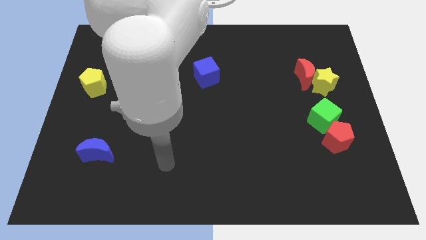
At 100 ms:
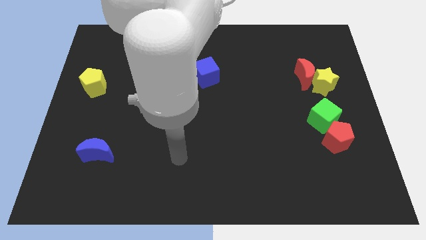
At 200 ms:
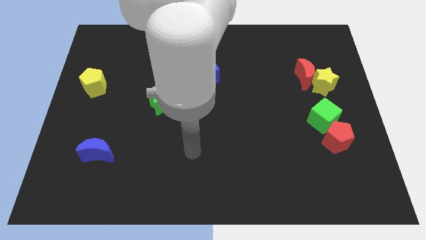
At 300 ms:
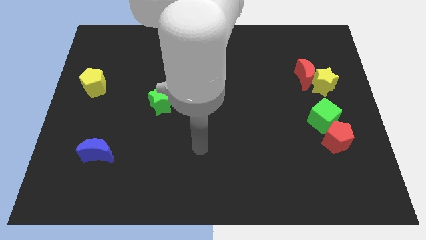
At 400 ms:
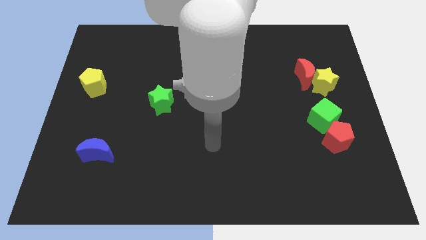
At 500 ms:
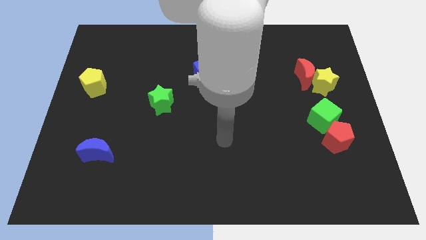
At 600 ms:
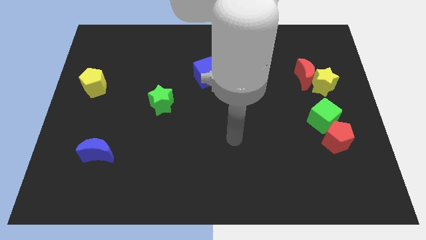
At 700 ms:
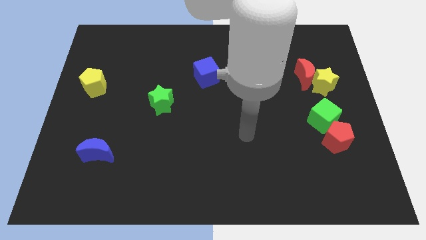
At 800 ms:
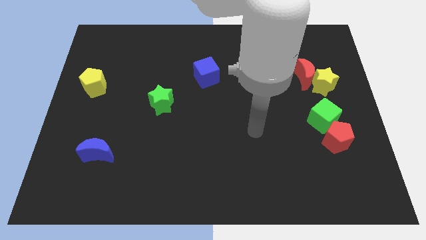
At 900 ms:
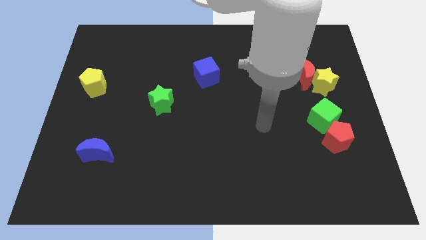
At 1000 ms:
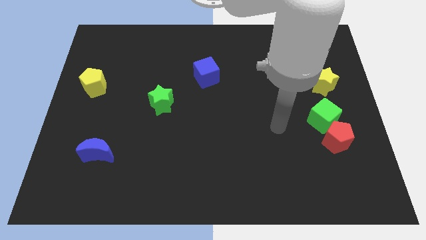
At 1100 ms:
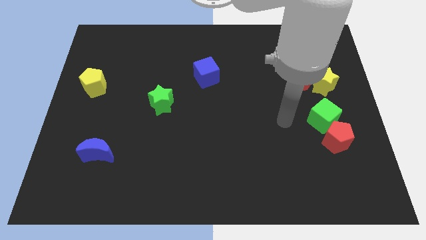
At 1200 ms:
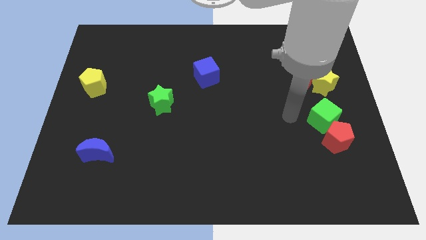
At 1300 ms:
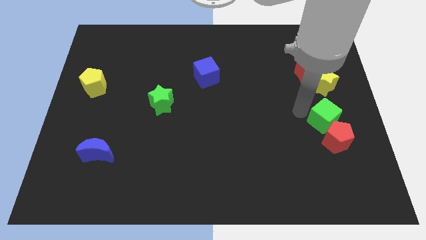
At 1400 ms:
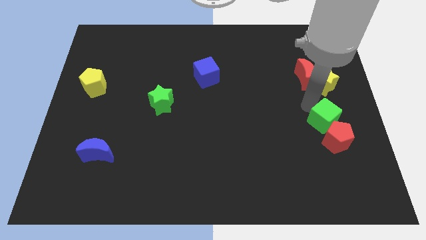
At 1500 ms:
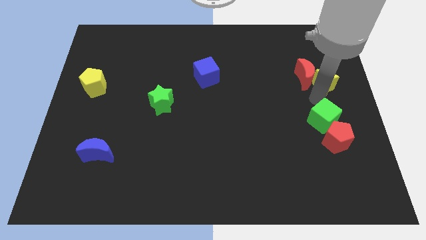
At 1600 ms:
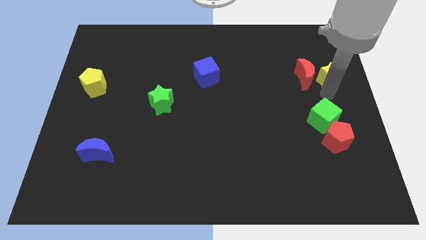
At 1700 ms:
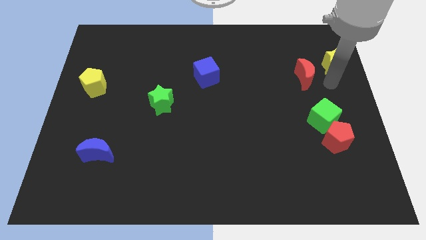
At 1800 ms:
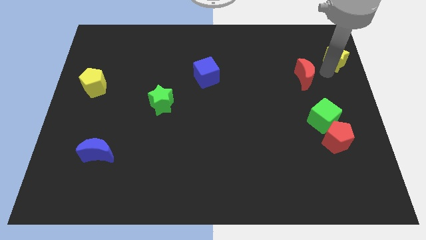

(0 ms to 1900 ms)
pull the red moon apart from the yellow star

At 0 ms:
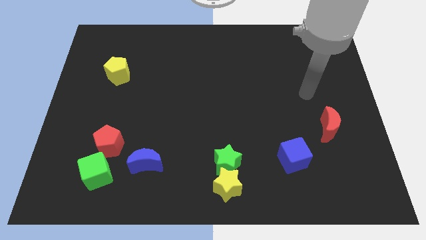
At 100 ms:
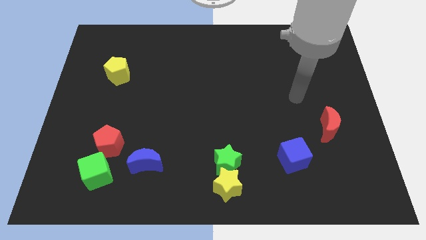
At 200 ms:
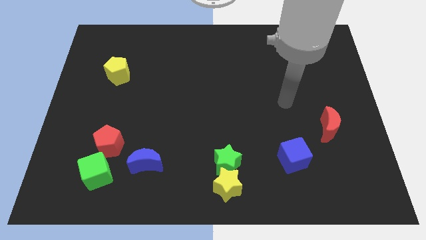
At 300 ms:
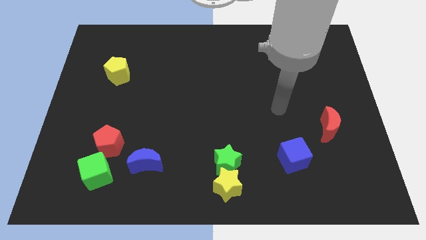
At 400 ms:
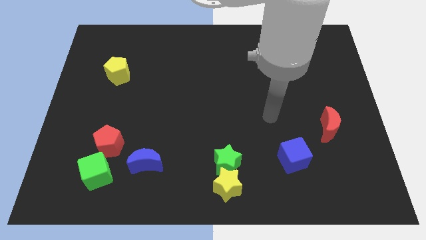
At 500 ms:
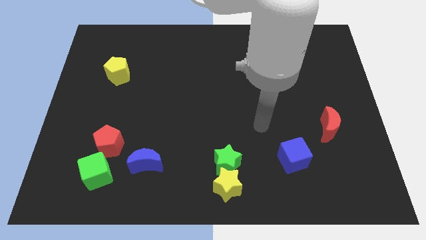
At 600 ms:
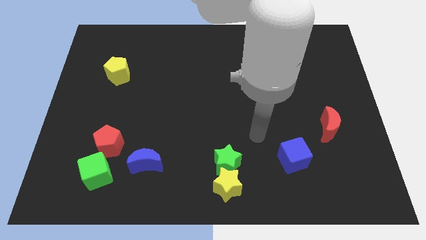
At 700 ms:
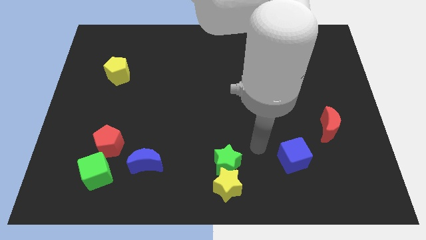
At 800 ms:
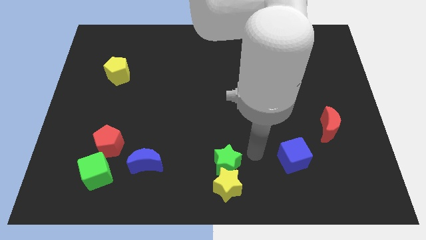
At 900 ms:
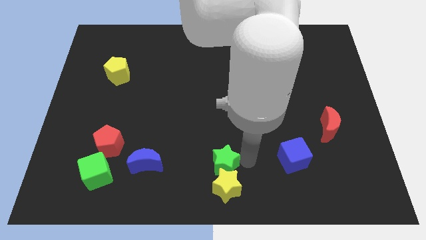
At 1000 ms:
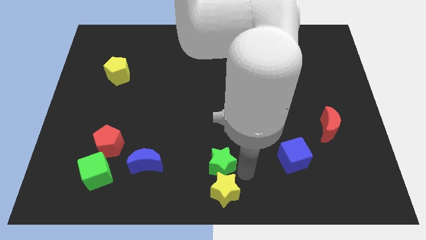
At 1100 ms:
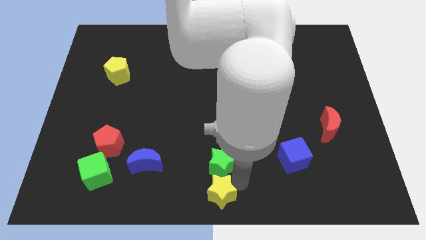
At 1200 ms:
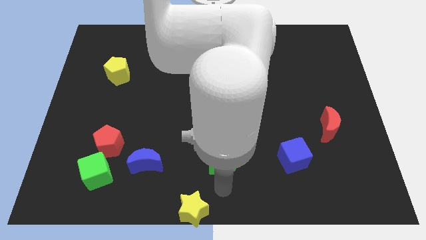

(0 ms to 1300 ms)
move the green star away from the yellow star

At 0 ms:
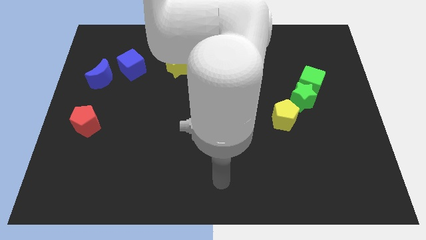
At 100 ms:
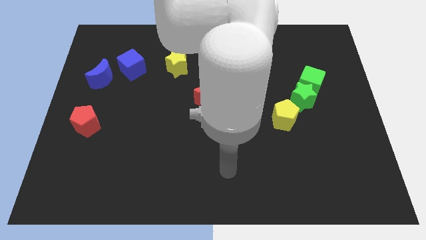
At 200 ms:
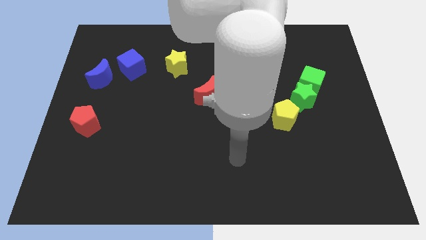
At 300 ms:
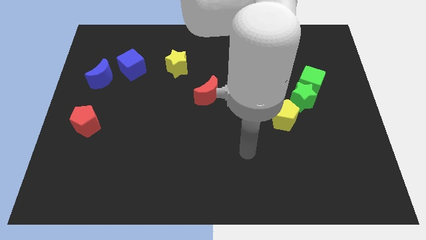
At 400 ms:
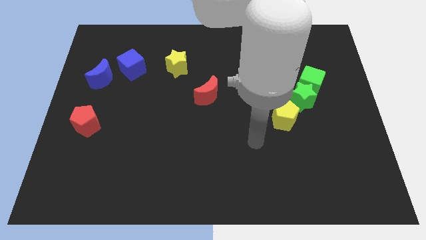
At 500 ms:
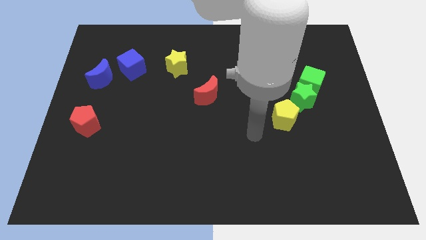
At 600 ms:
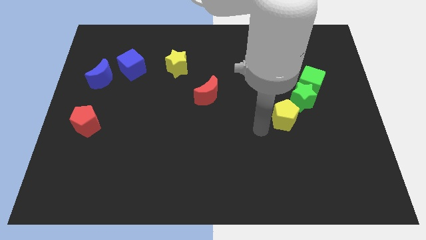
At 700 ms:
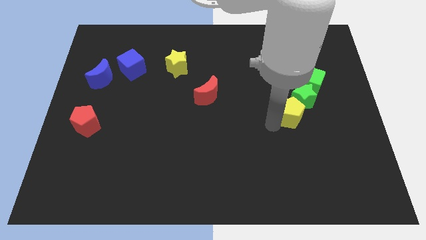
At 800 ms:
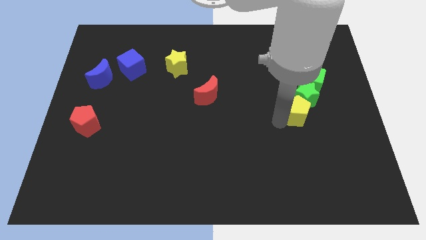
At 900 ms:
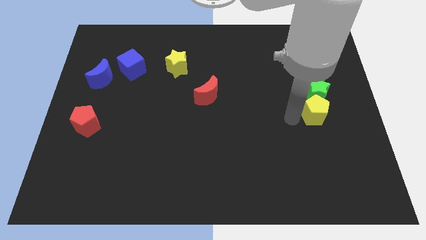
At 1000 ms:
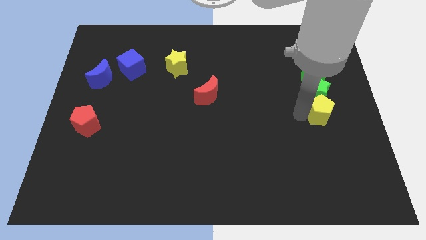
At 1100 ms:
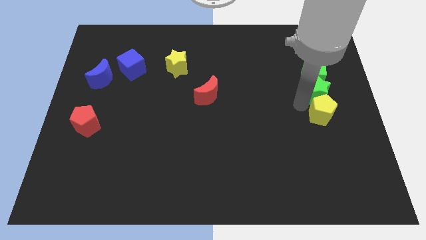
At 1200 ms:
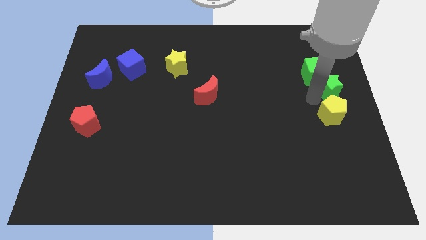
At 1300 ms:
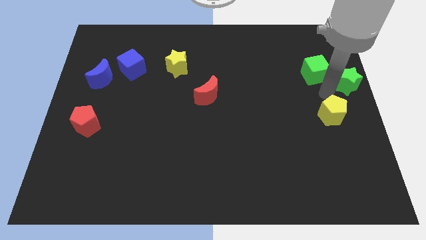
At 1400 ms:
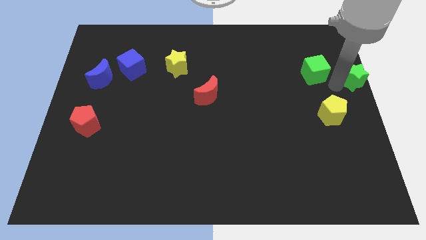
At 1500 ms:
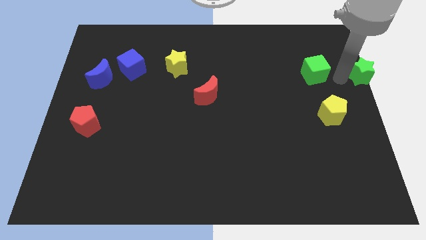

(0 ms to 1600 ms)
separate the green cube from the green star

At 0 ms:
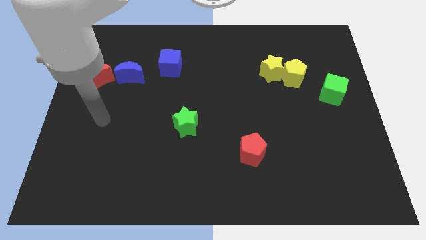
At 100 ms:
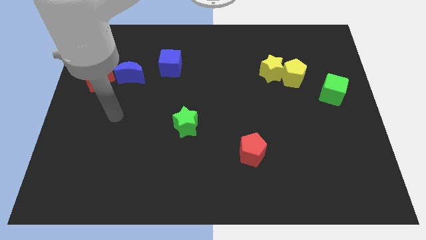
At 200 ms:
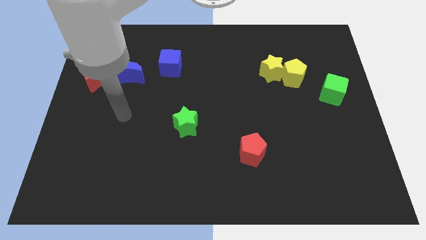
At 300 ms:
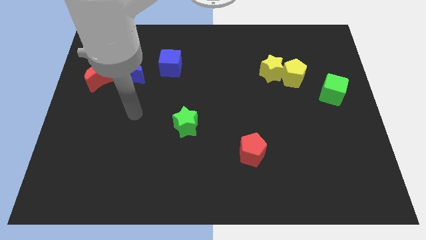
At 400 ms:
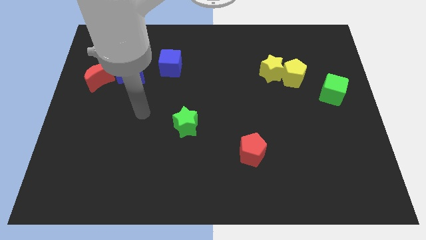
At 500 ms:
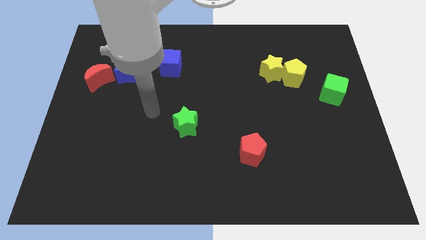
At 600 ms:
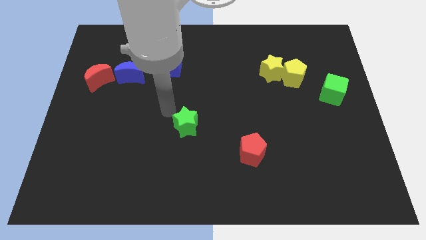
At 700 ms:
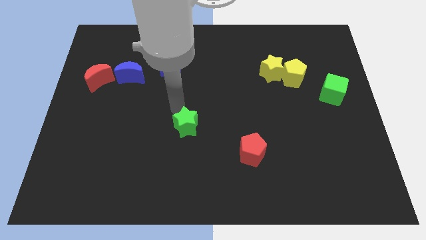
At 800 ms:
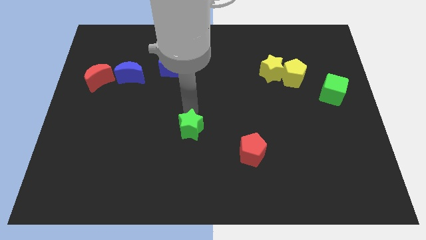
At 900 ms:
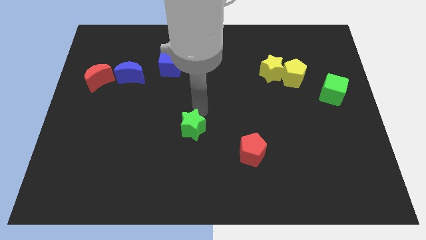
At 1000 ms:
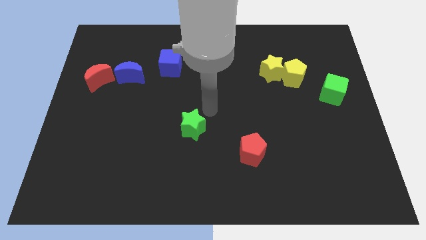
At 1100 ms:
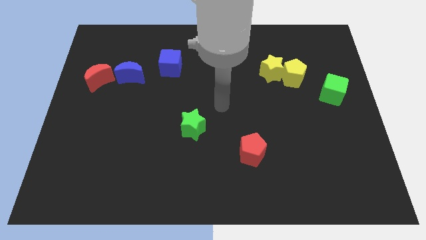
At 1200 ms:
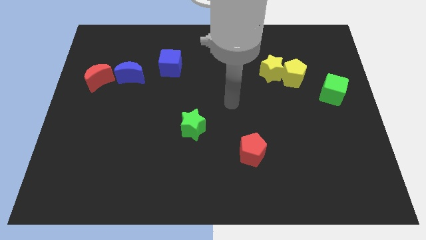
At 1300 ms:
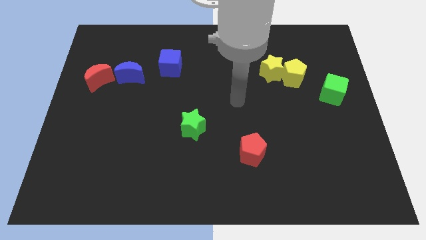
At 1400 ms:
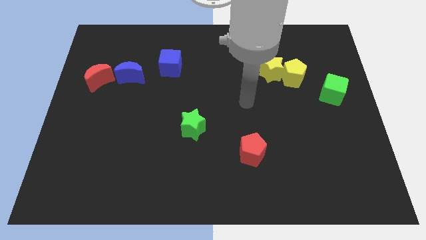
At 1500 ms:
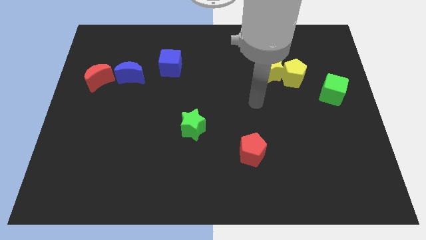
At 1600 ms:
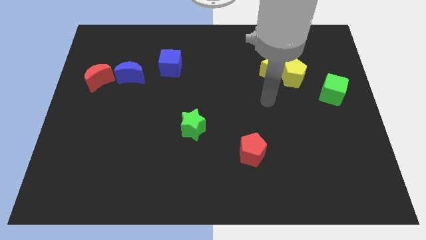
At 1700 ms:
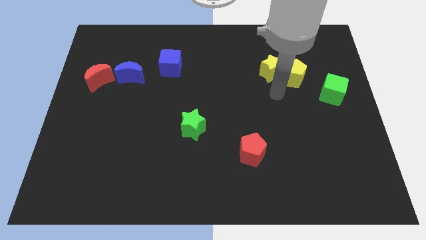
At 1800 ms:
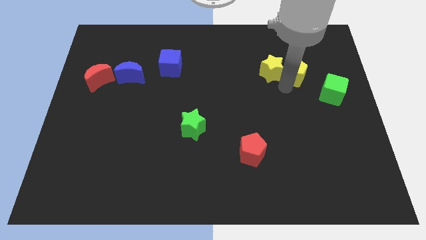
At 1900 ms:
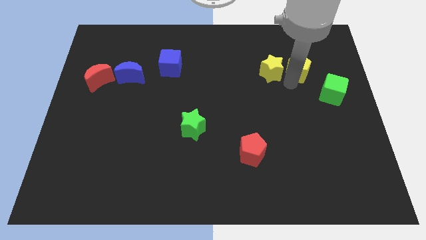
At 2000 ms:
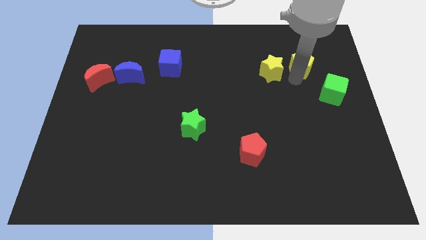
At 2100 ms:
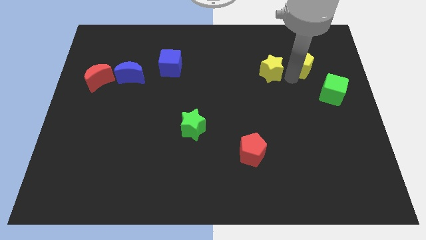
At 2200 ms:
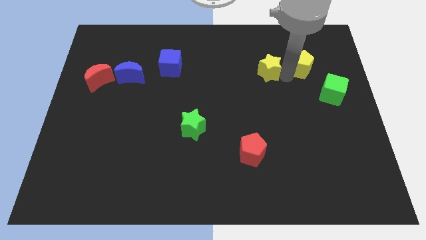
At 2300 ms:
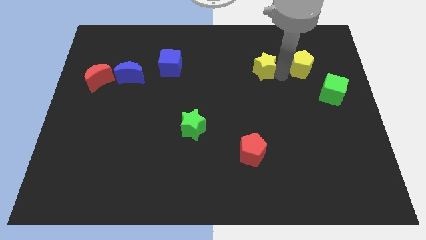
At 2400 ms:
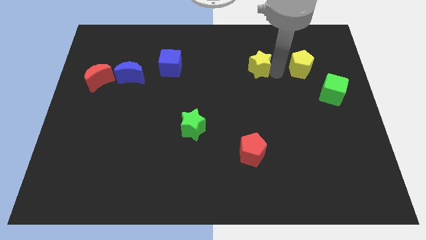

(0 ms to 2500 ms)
move the yellow star away from the yellow pentagon

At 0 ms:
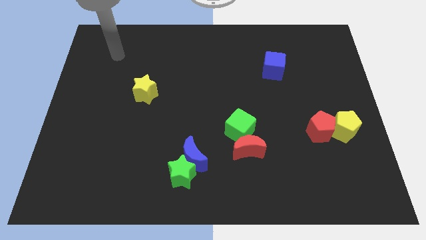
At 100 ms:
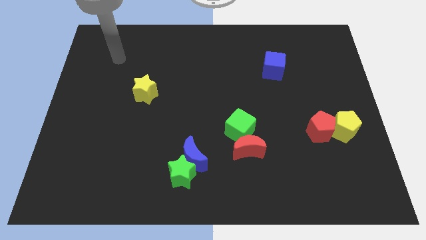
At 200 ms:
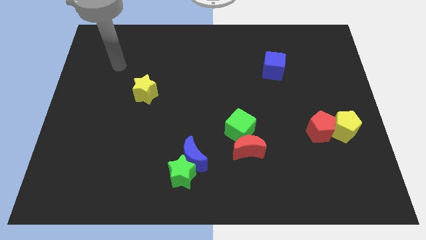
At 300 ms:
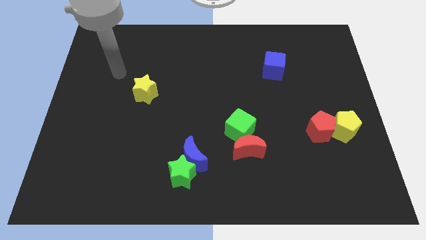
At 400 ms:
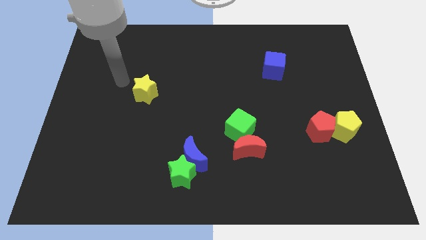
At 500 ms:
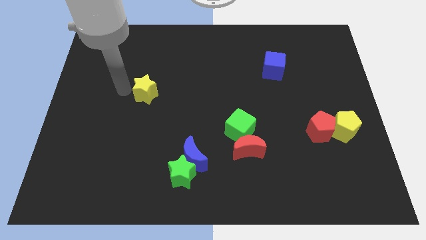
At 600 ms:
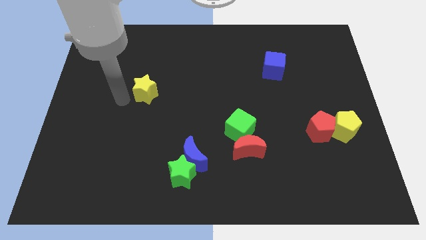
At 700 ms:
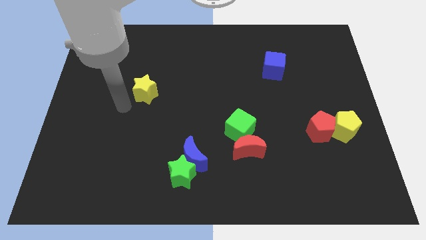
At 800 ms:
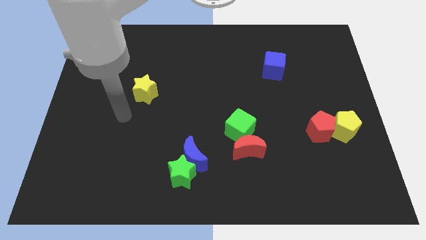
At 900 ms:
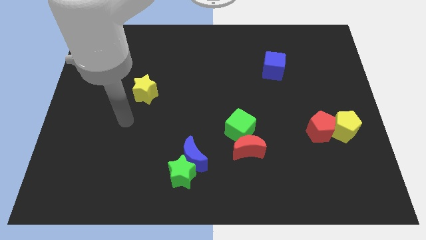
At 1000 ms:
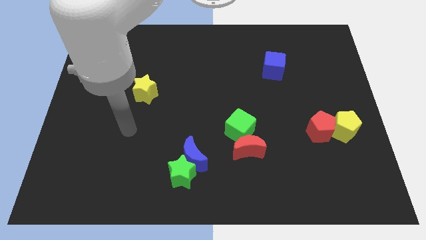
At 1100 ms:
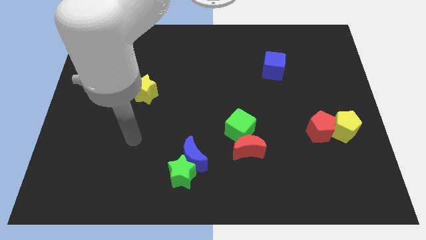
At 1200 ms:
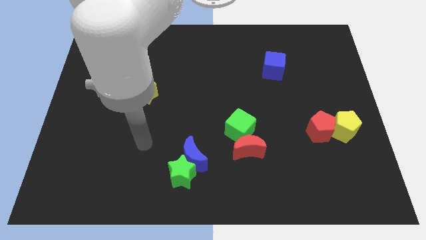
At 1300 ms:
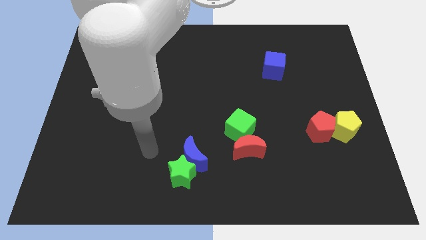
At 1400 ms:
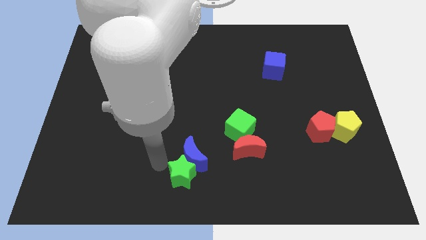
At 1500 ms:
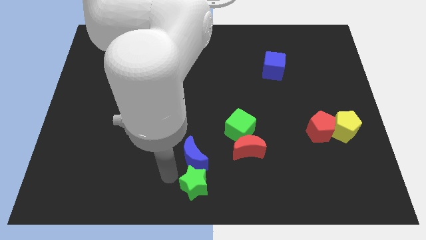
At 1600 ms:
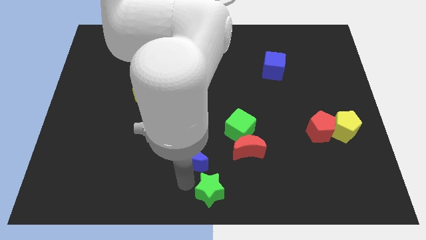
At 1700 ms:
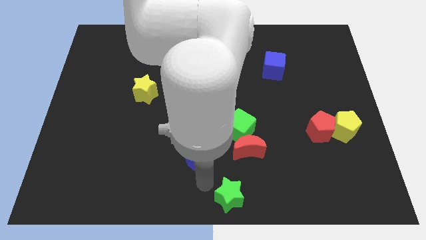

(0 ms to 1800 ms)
move the blue moon away from the green star

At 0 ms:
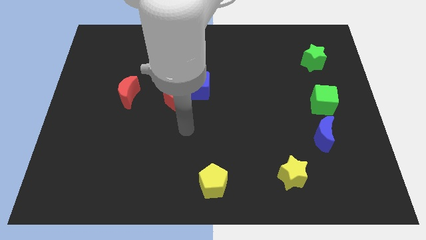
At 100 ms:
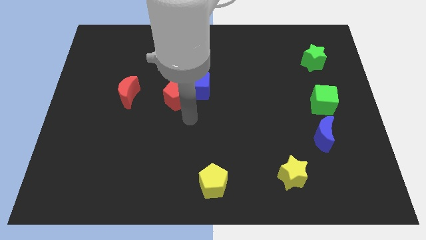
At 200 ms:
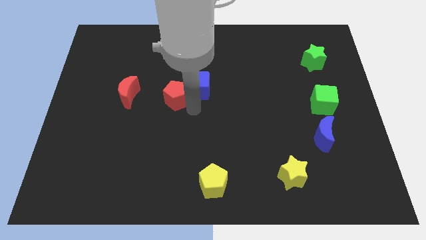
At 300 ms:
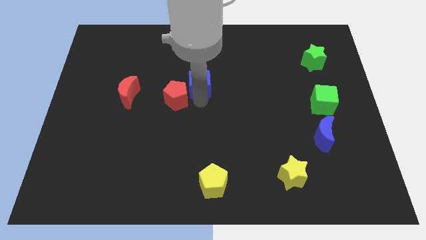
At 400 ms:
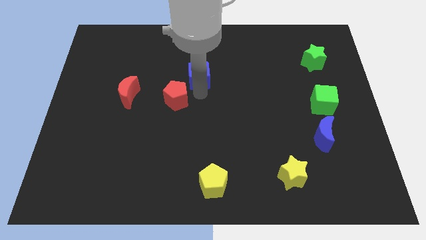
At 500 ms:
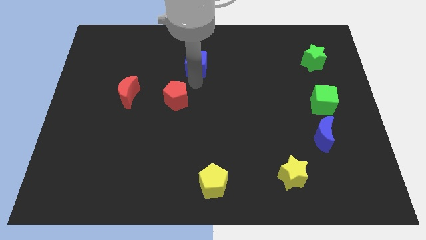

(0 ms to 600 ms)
move the red pentagon away from the blue cube
